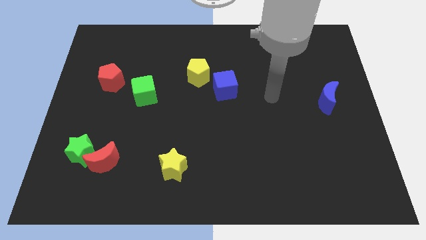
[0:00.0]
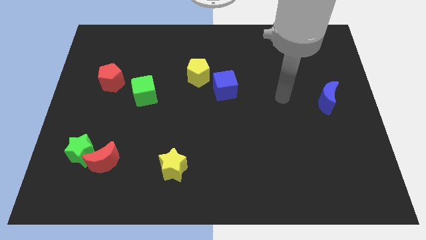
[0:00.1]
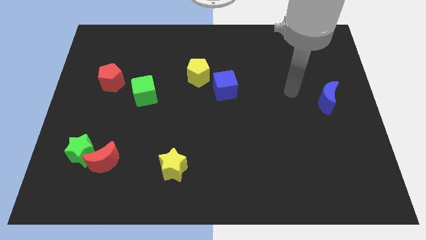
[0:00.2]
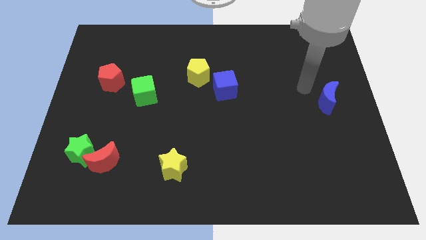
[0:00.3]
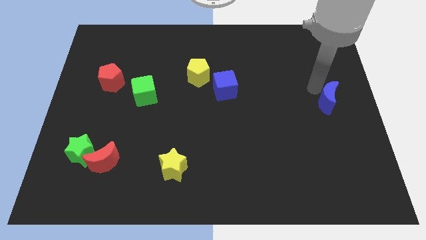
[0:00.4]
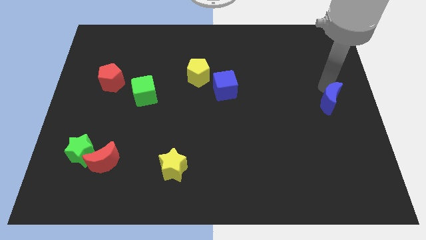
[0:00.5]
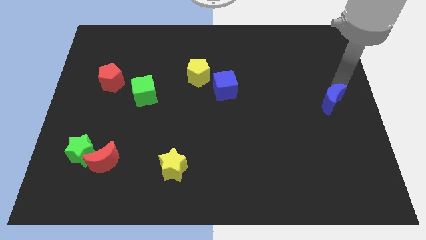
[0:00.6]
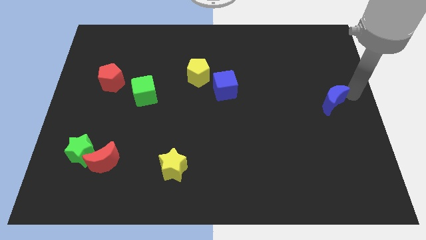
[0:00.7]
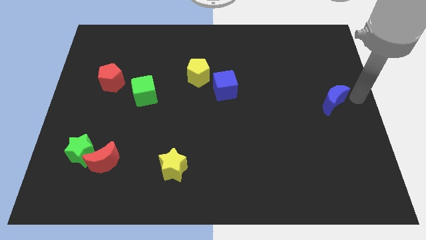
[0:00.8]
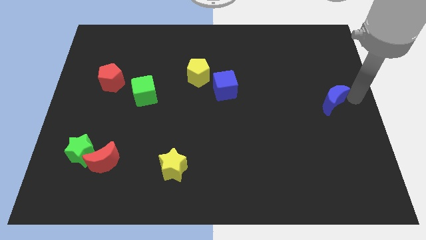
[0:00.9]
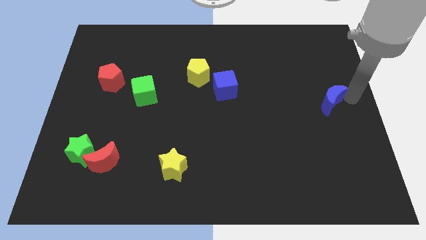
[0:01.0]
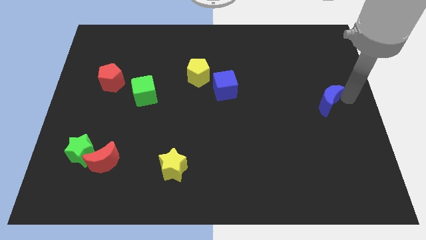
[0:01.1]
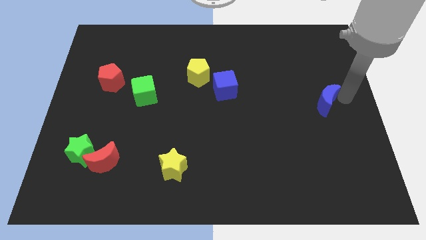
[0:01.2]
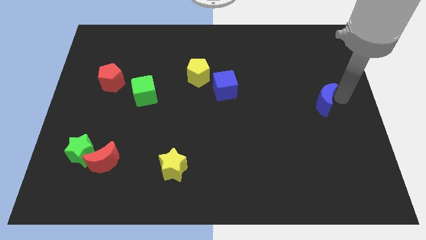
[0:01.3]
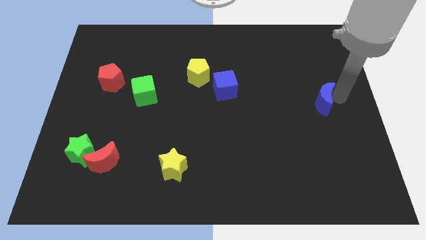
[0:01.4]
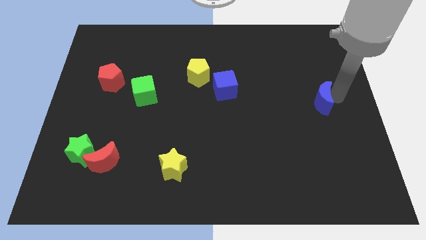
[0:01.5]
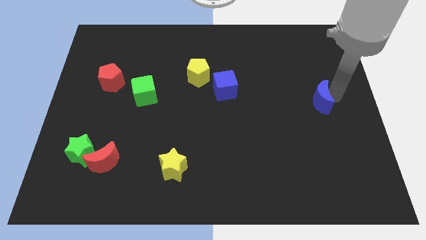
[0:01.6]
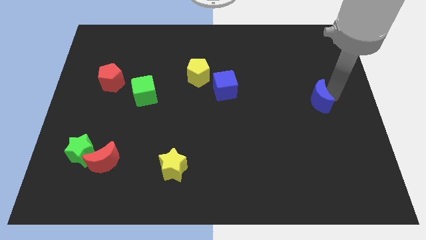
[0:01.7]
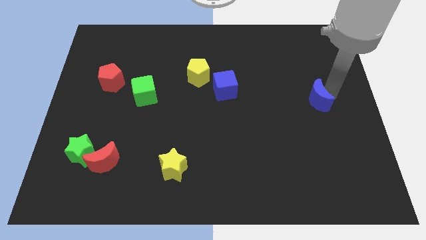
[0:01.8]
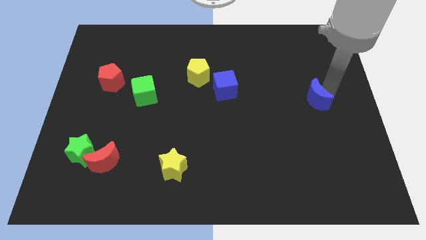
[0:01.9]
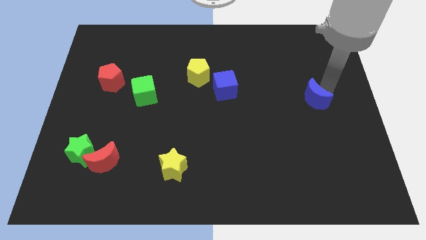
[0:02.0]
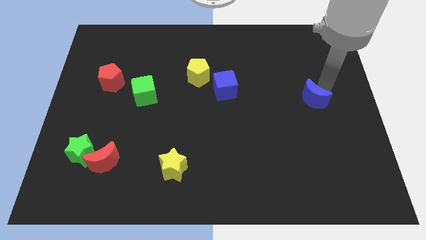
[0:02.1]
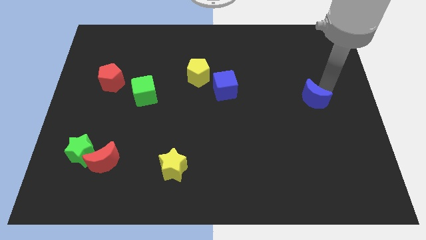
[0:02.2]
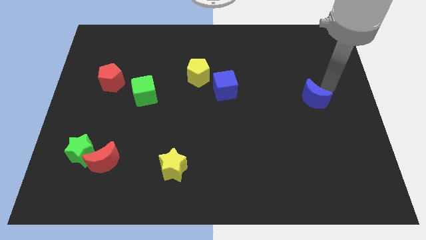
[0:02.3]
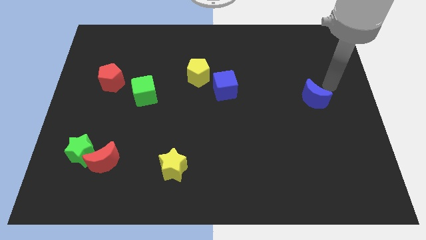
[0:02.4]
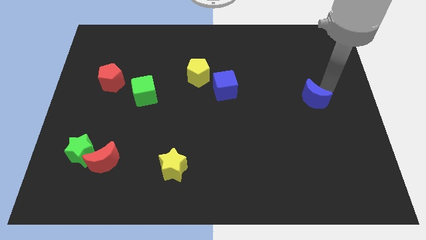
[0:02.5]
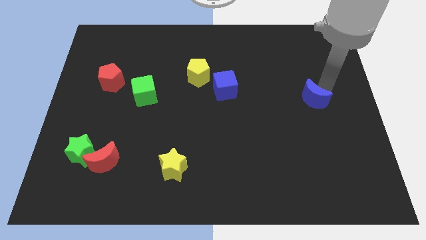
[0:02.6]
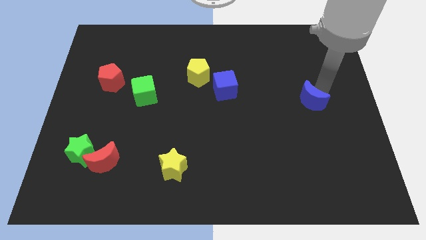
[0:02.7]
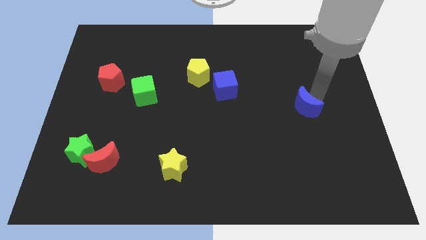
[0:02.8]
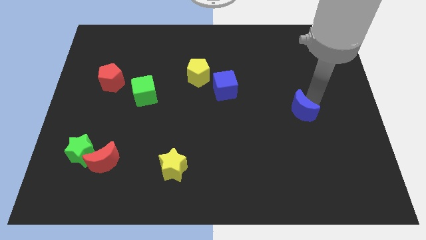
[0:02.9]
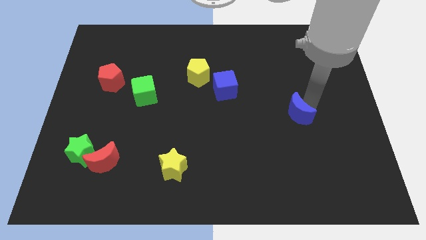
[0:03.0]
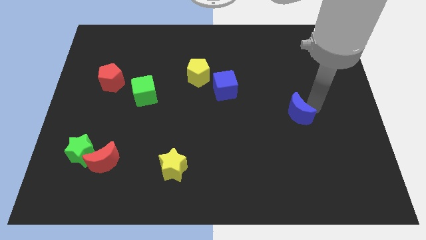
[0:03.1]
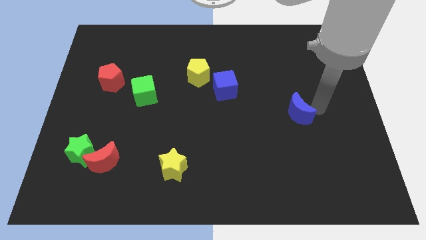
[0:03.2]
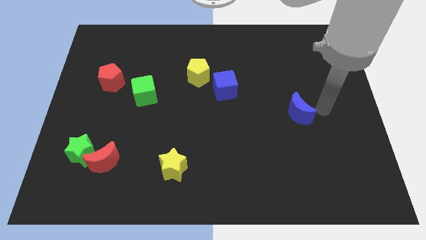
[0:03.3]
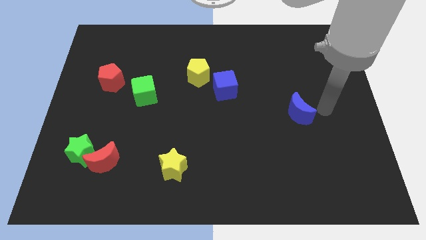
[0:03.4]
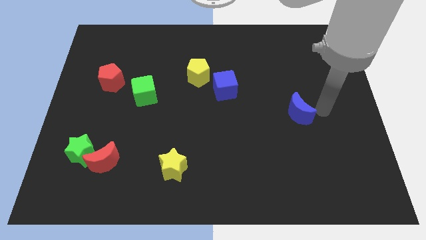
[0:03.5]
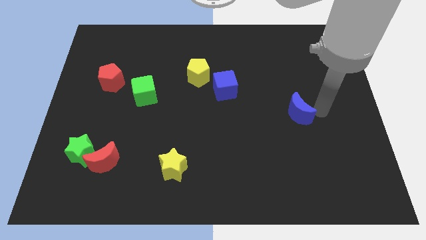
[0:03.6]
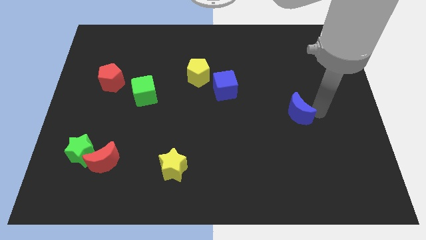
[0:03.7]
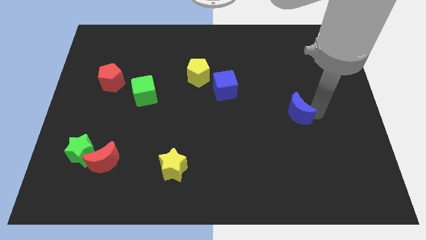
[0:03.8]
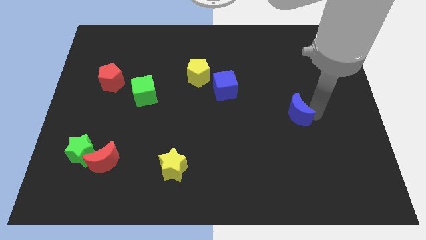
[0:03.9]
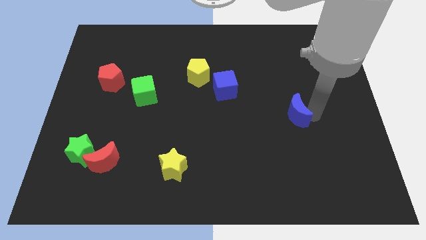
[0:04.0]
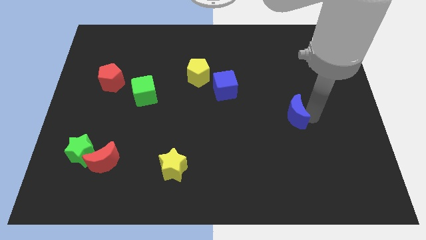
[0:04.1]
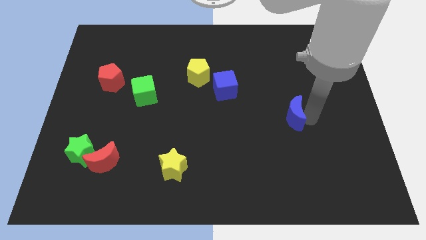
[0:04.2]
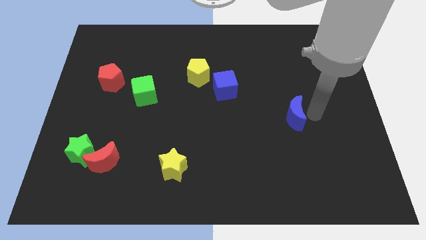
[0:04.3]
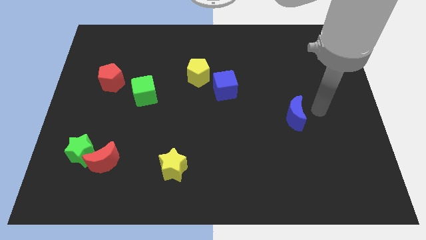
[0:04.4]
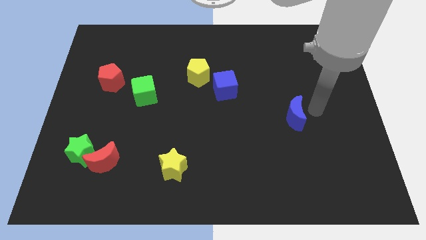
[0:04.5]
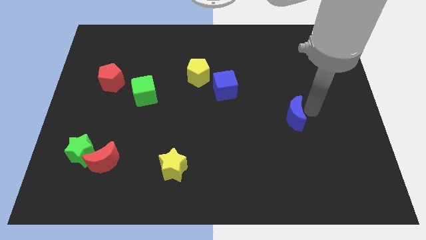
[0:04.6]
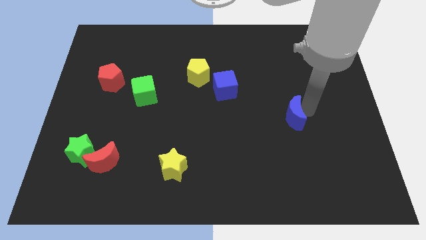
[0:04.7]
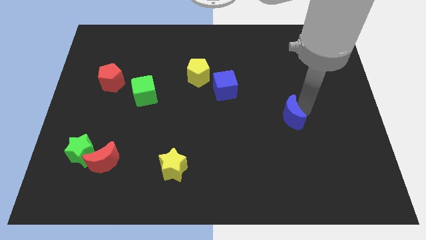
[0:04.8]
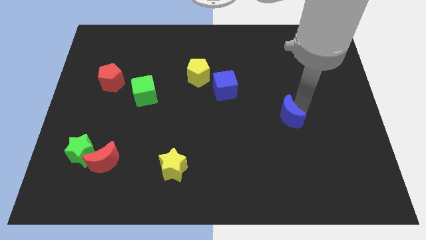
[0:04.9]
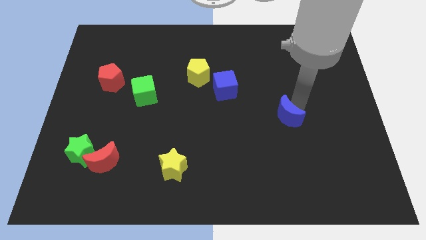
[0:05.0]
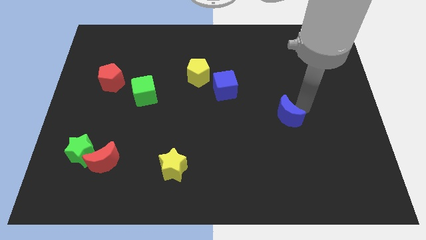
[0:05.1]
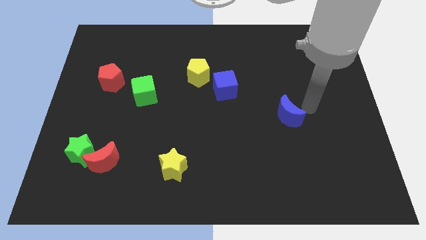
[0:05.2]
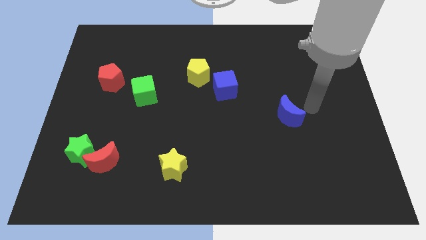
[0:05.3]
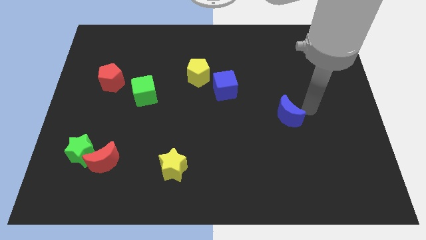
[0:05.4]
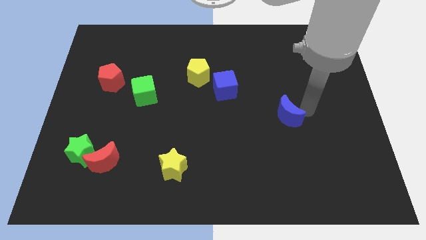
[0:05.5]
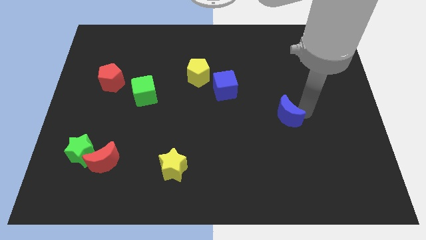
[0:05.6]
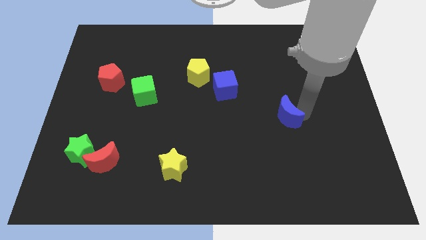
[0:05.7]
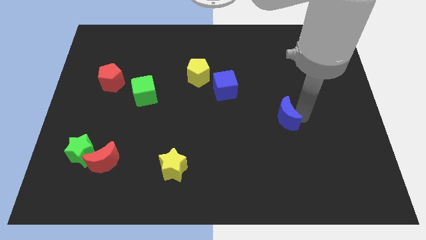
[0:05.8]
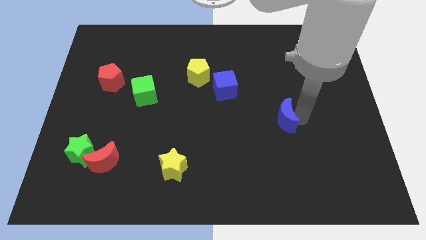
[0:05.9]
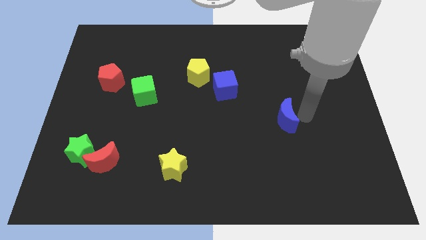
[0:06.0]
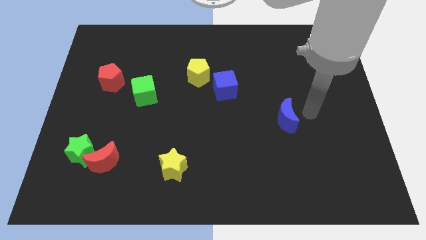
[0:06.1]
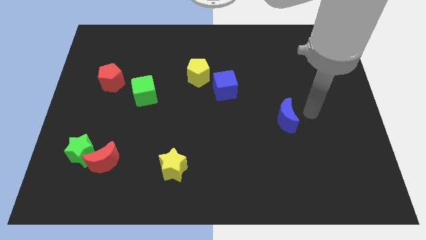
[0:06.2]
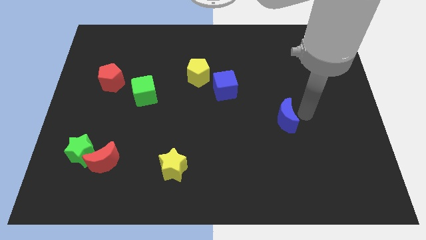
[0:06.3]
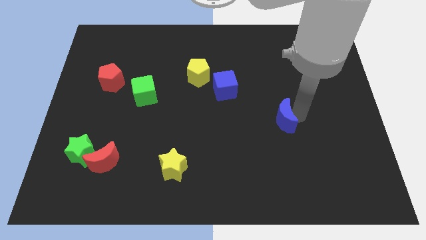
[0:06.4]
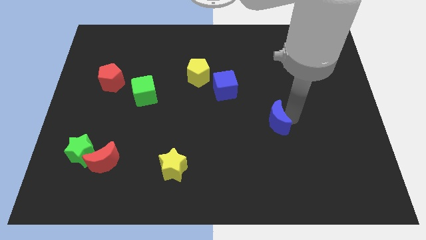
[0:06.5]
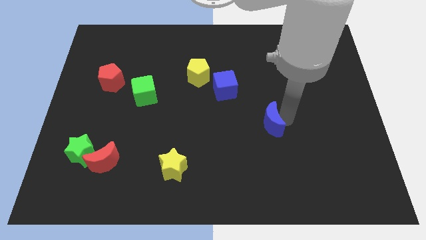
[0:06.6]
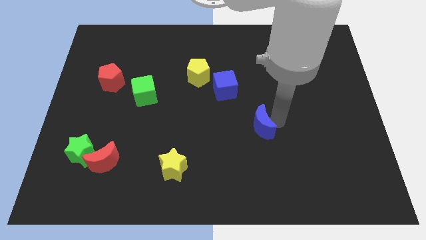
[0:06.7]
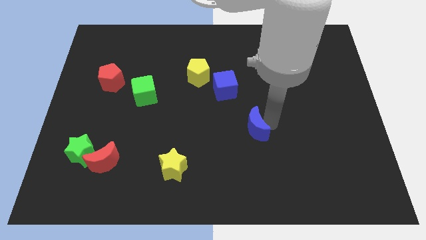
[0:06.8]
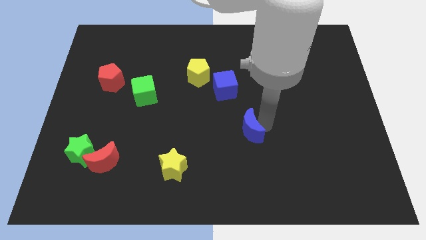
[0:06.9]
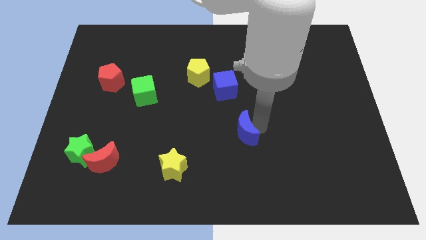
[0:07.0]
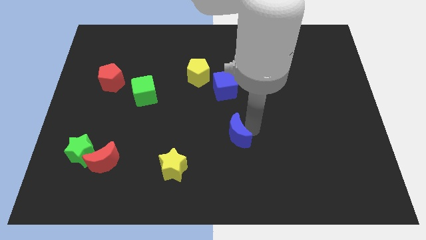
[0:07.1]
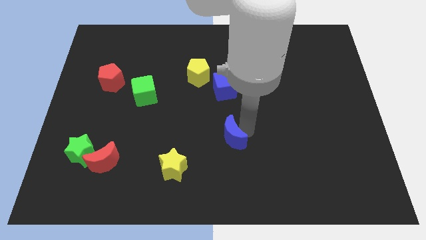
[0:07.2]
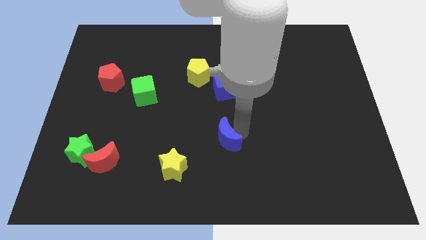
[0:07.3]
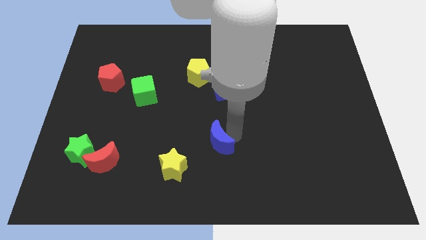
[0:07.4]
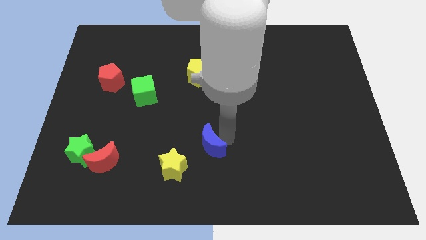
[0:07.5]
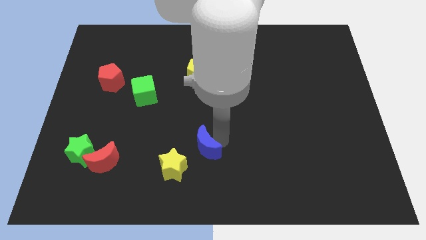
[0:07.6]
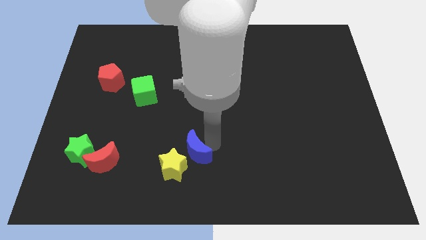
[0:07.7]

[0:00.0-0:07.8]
put the blue moon to the yellow star
